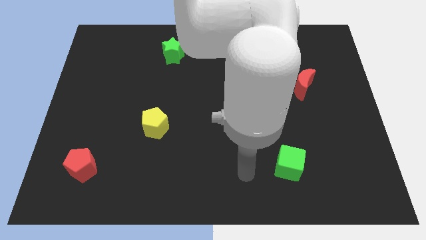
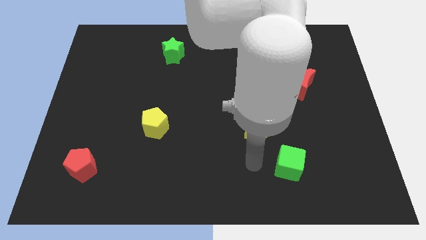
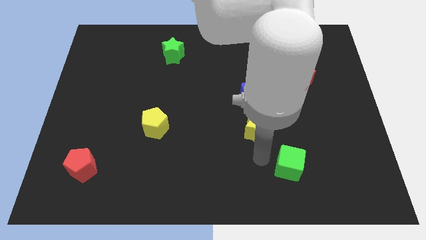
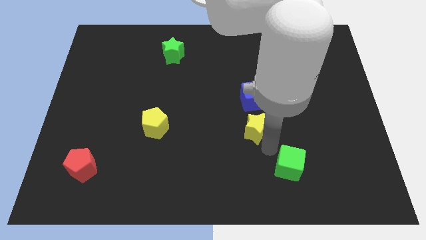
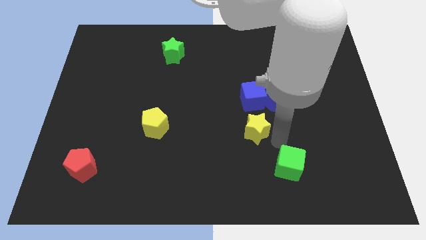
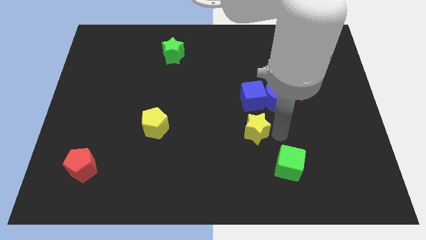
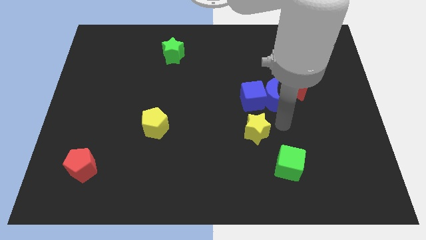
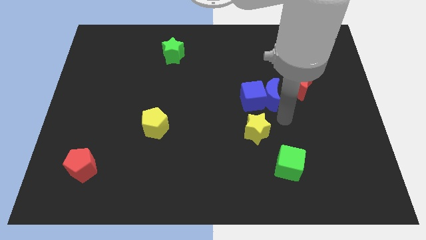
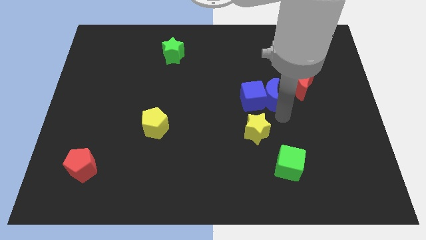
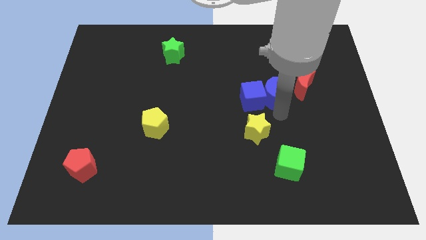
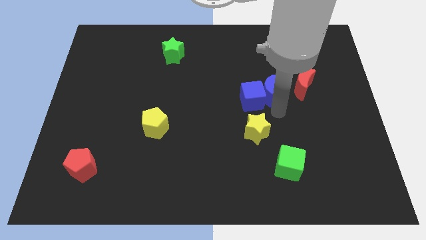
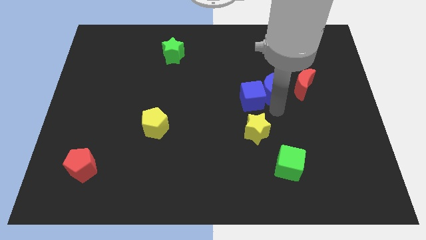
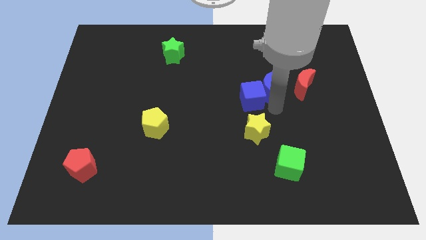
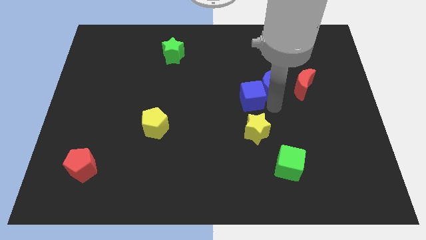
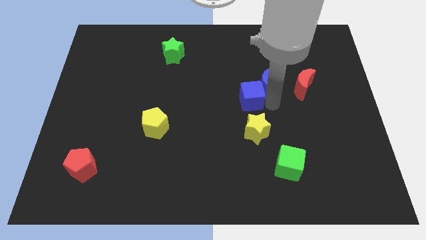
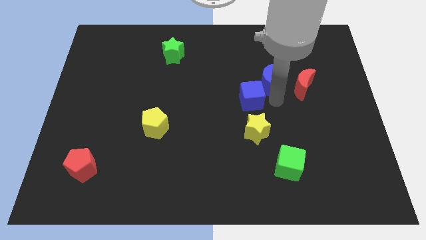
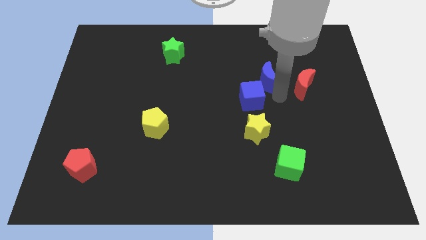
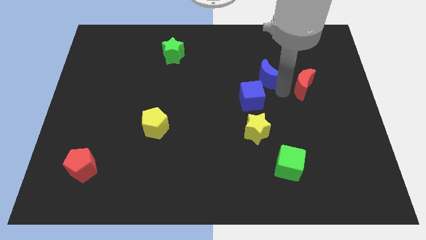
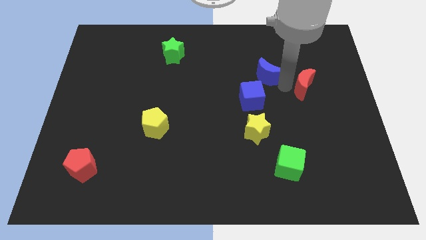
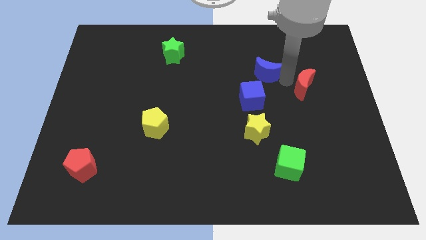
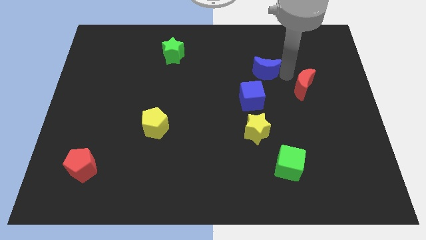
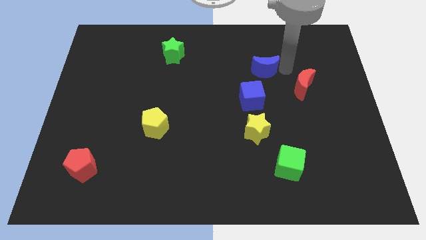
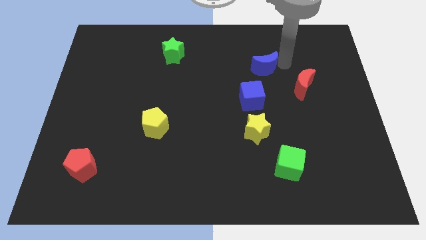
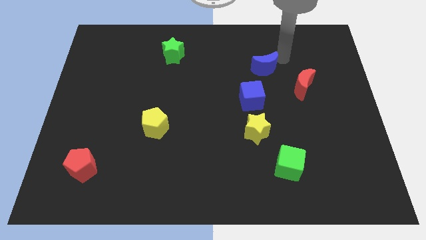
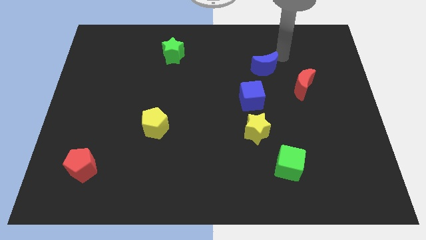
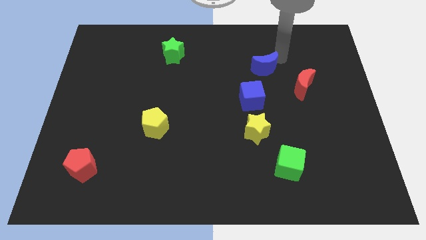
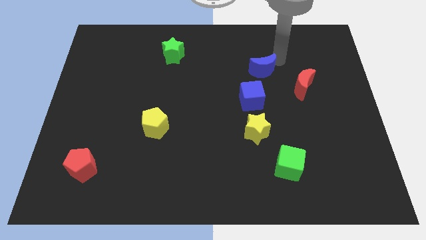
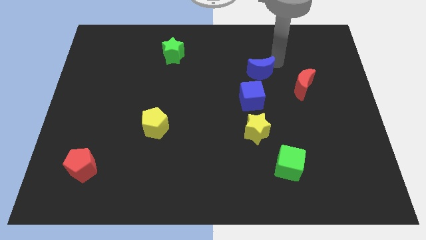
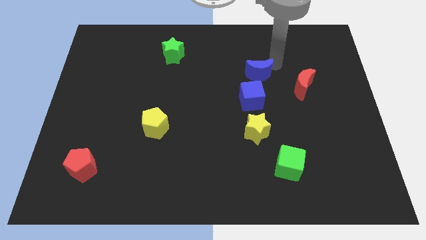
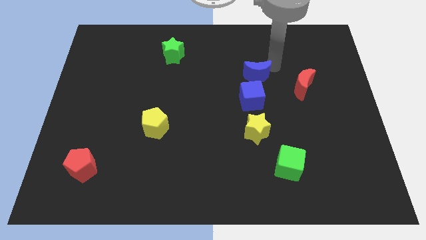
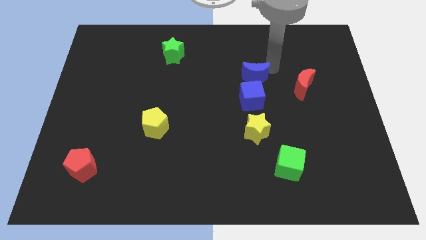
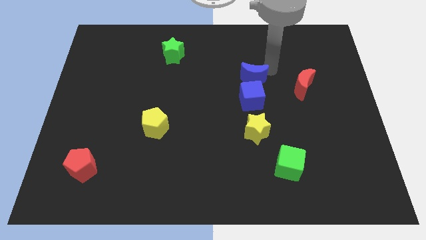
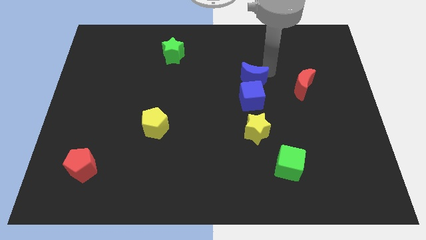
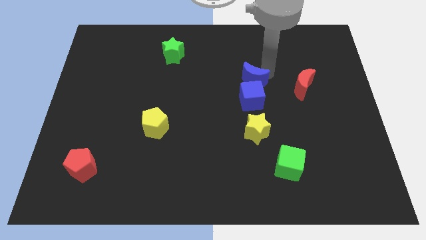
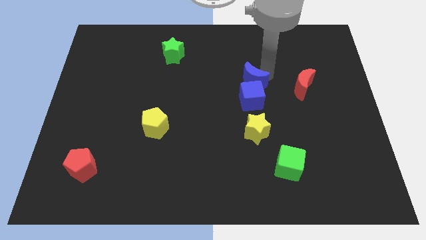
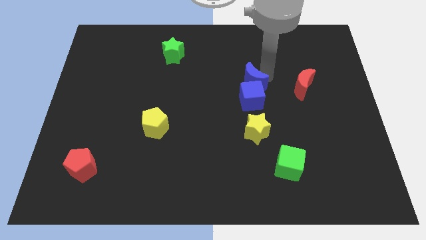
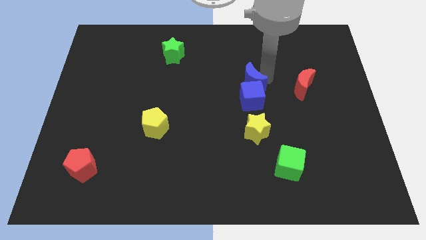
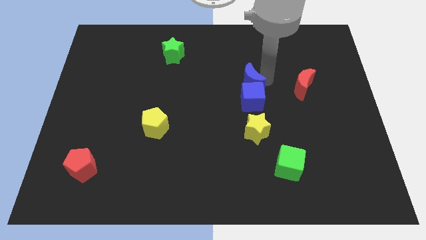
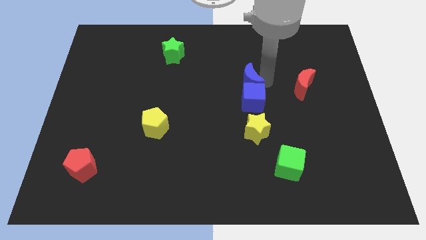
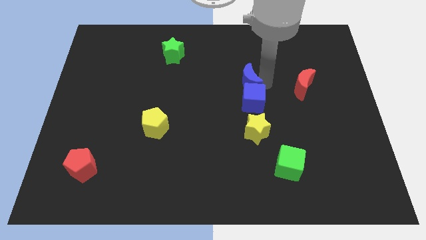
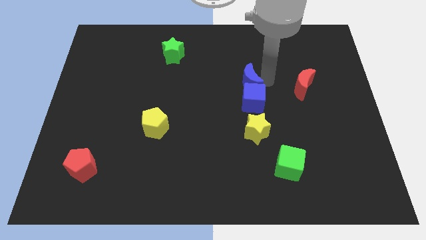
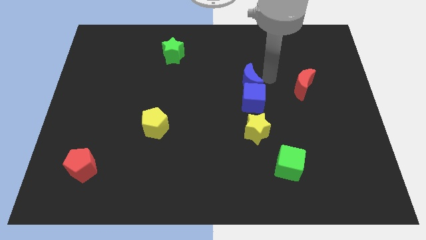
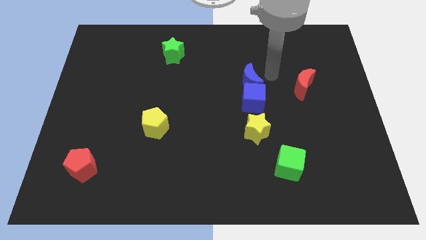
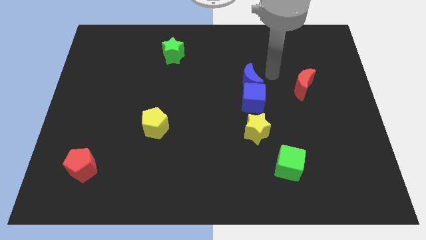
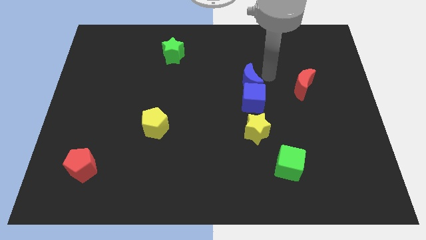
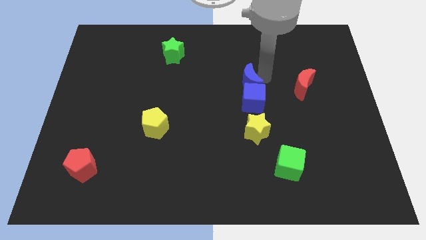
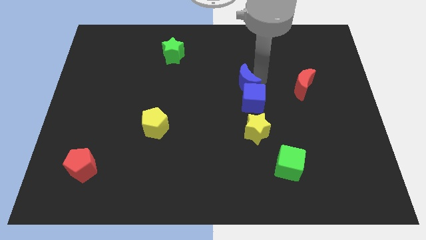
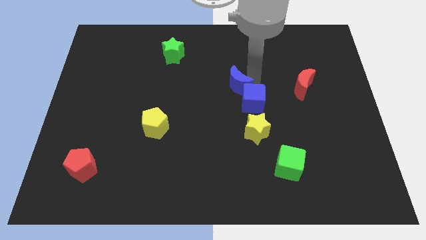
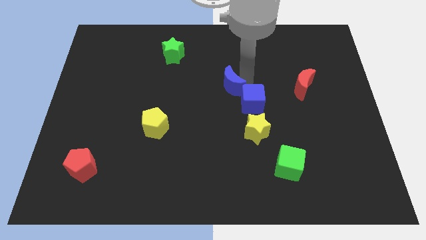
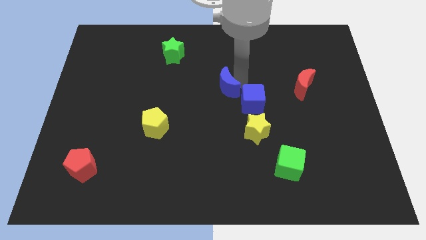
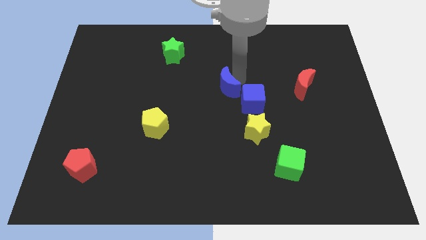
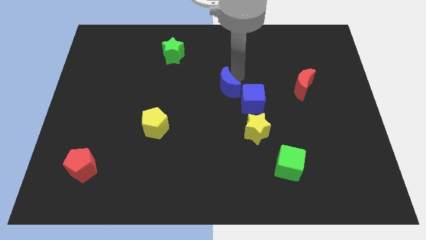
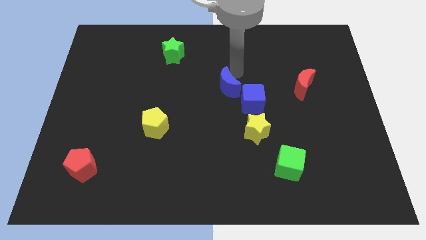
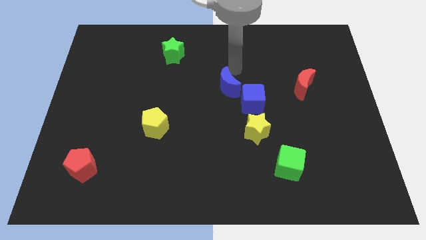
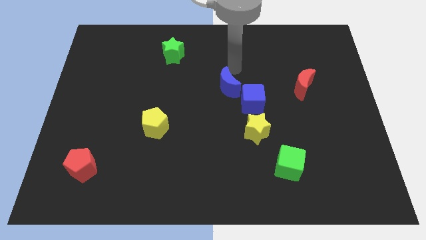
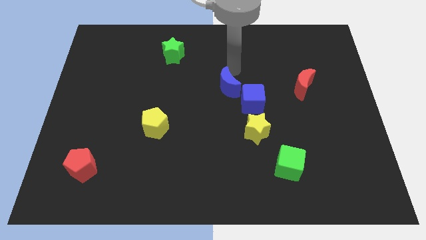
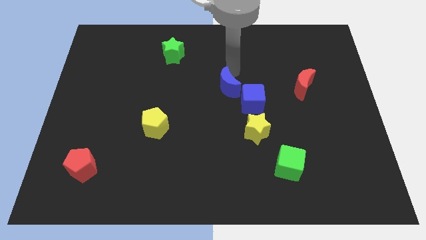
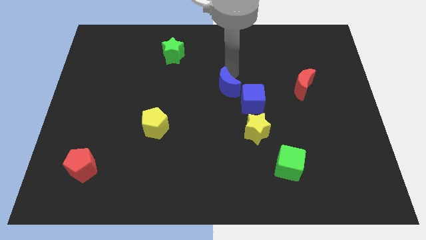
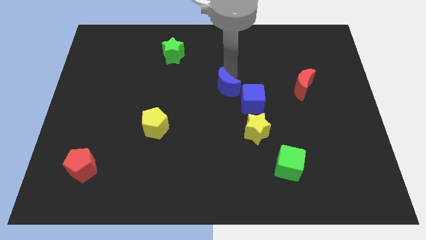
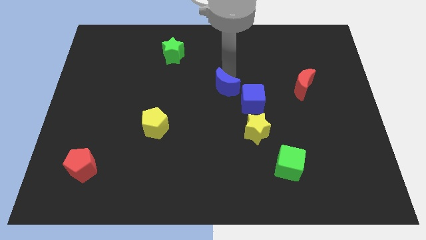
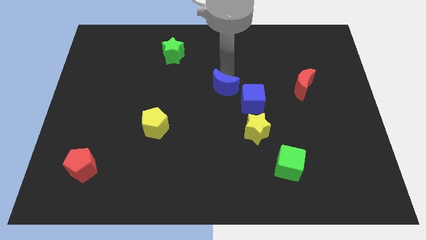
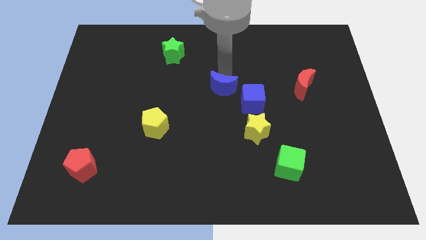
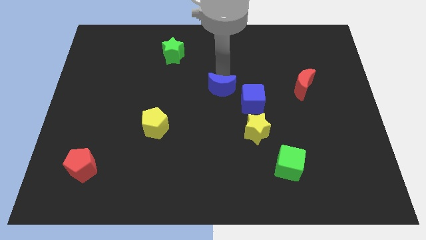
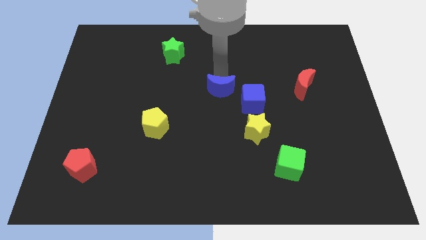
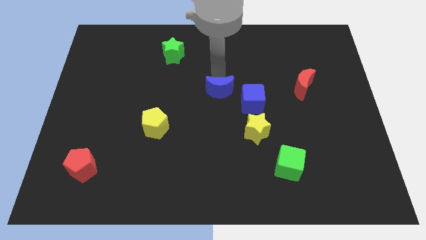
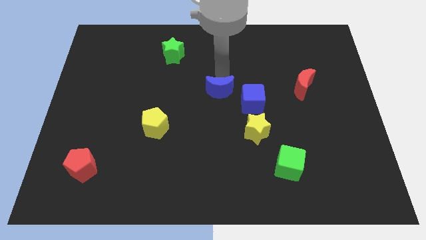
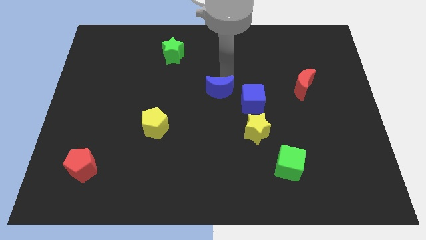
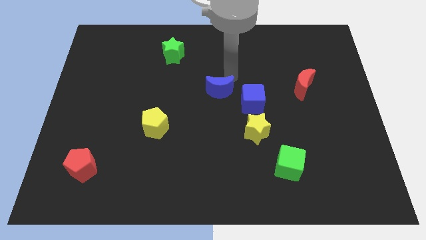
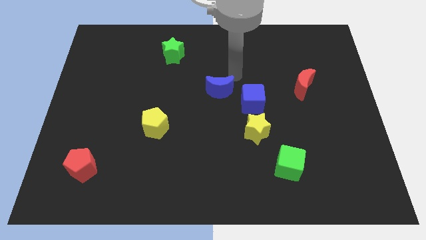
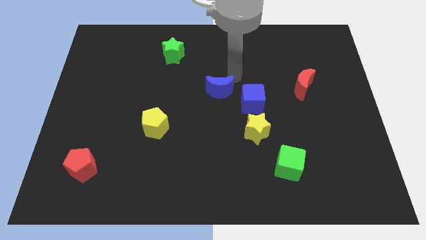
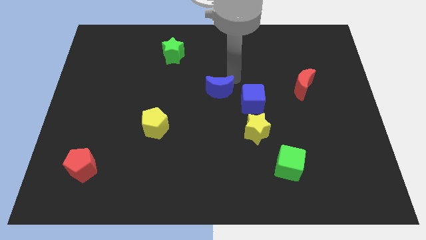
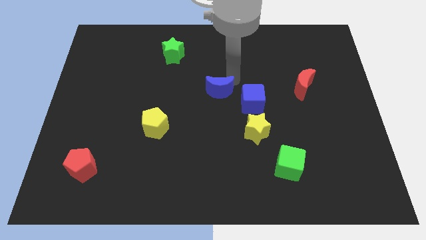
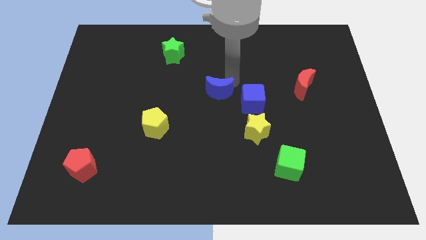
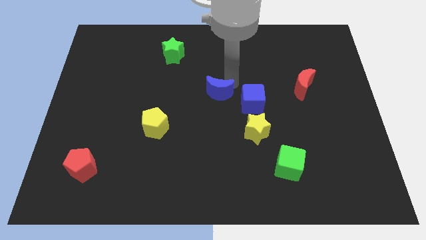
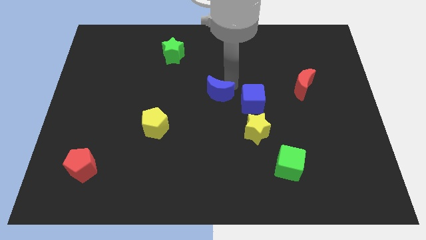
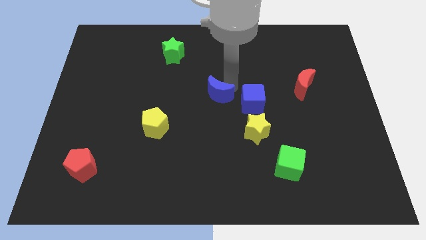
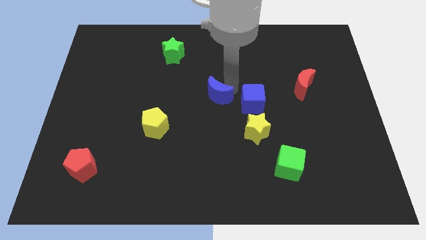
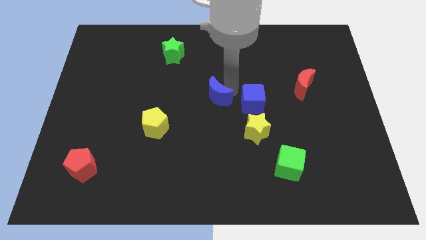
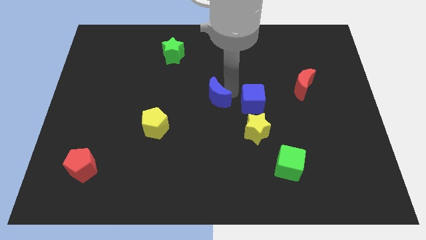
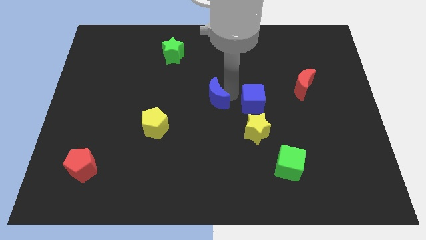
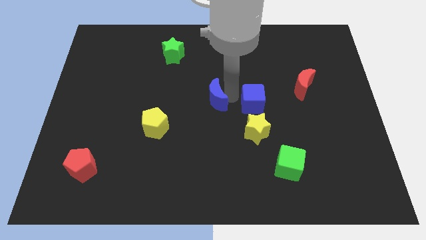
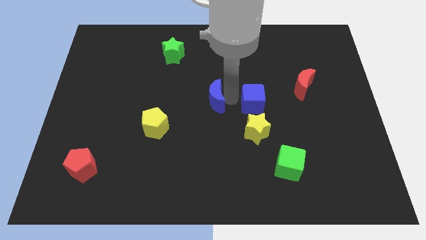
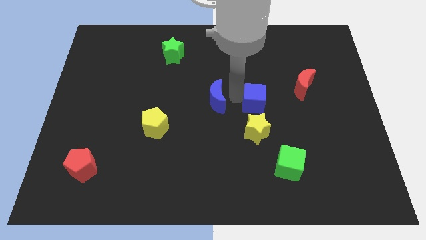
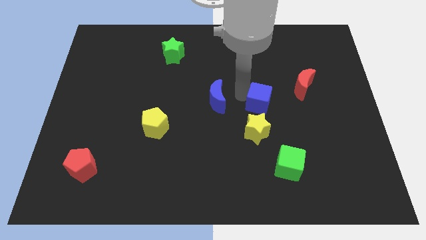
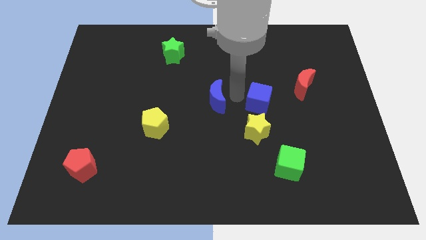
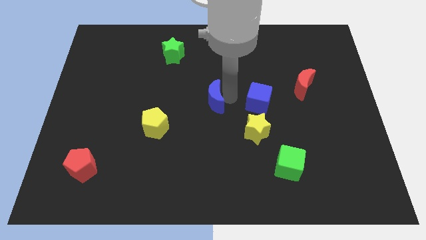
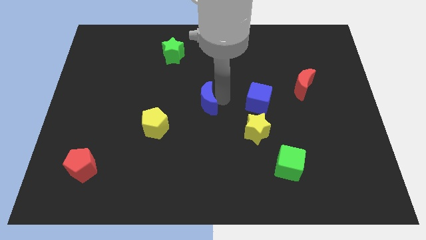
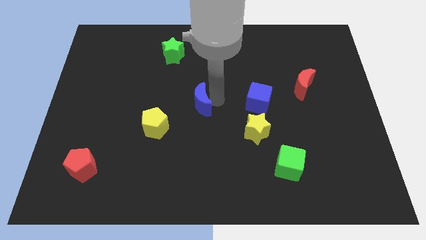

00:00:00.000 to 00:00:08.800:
slide the blue moon diagonally up and to the right of the yellow pentagon
